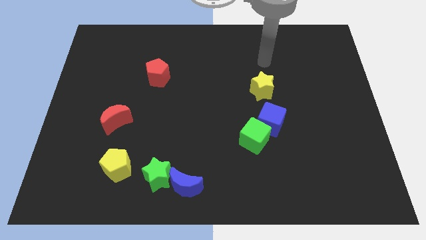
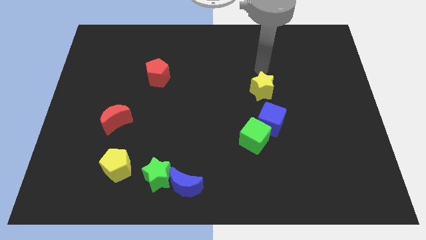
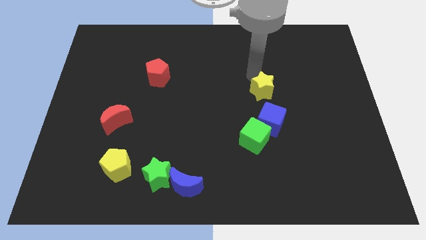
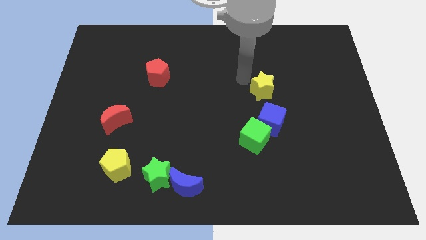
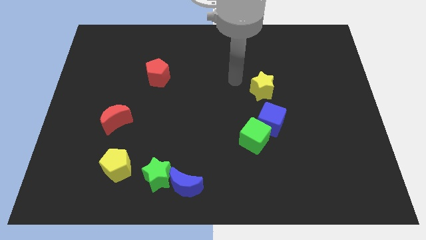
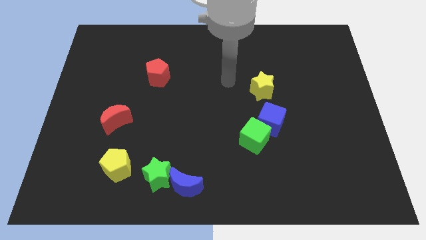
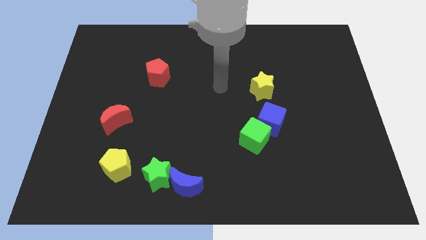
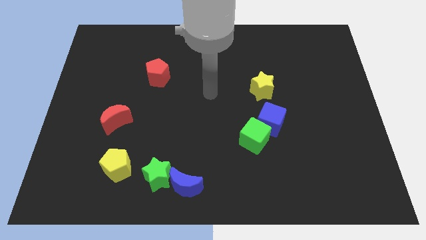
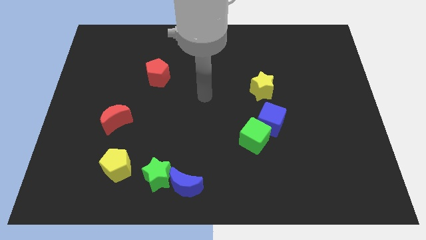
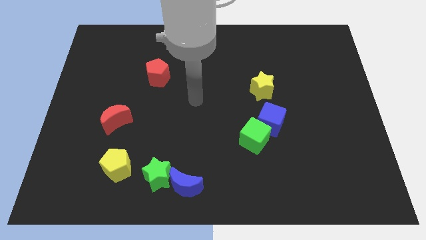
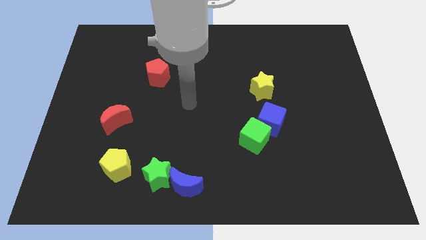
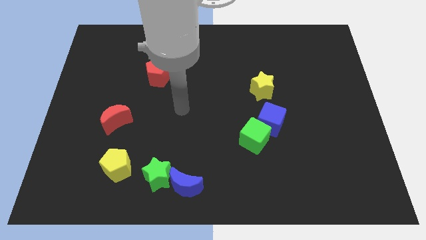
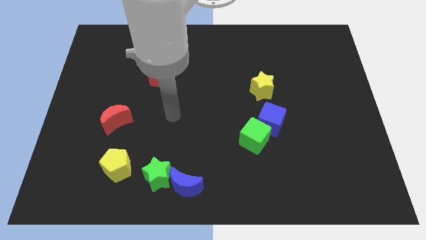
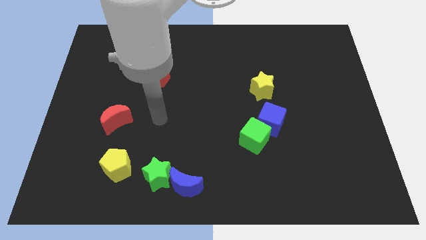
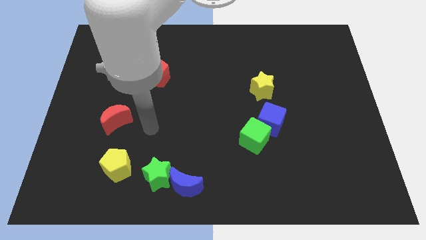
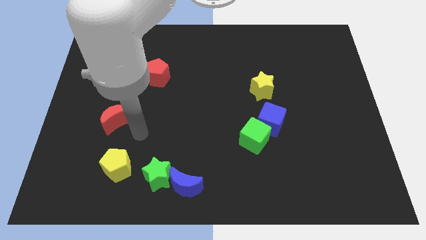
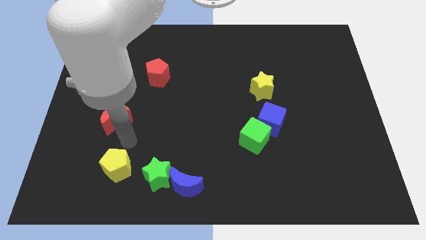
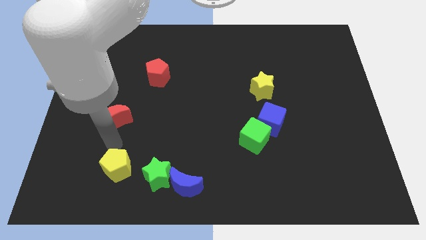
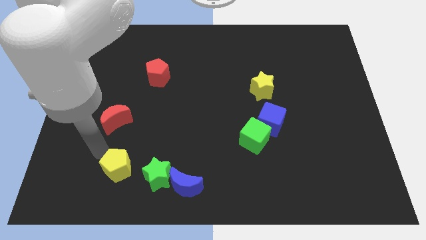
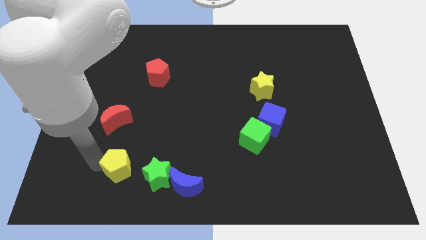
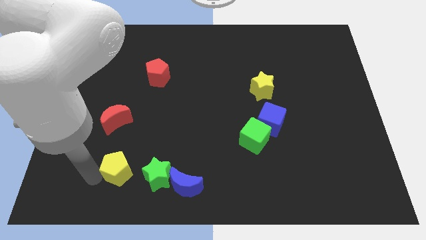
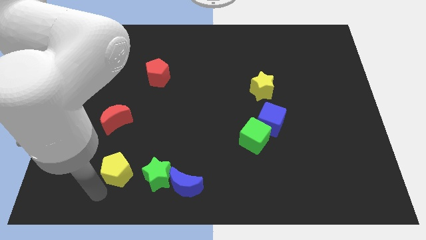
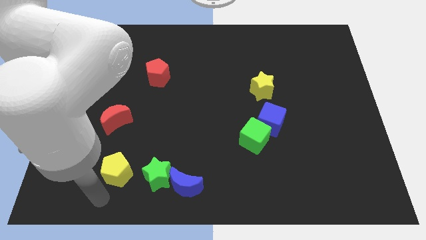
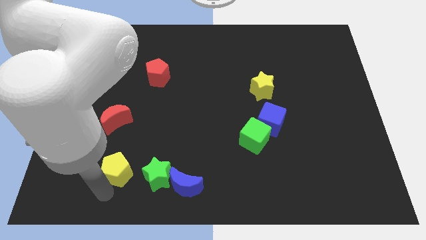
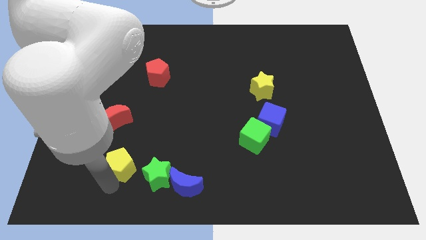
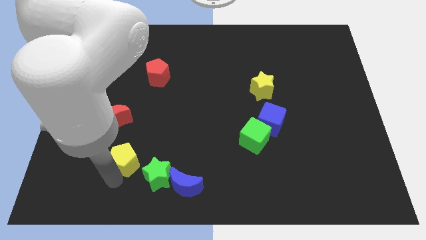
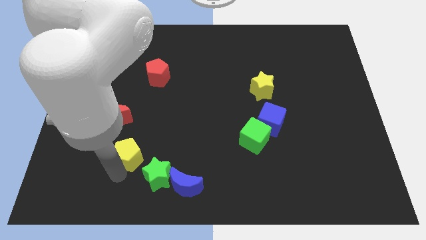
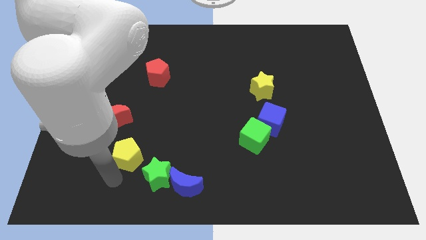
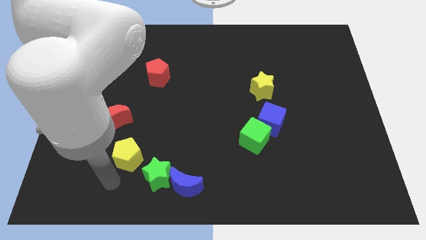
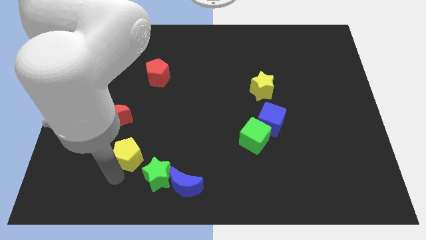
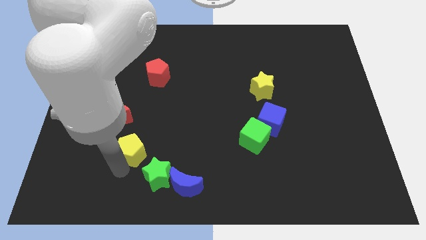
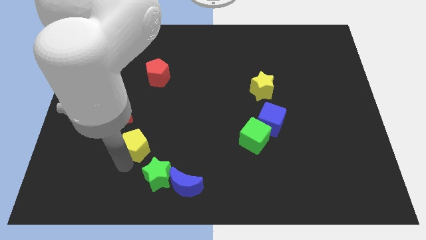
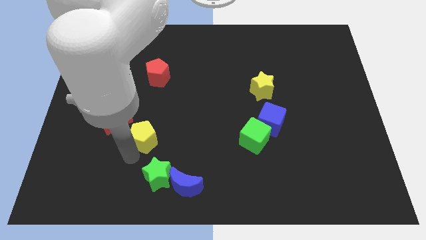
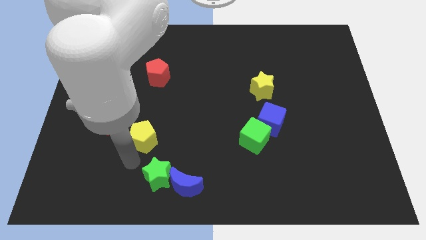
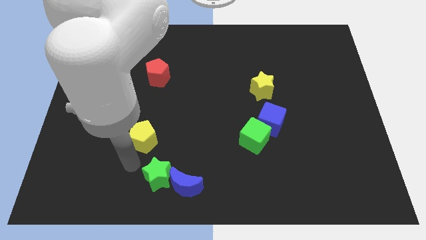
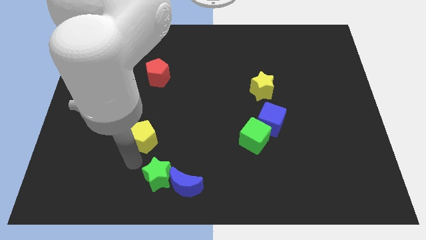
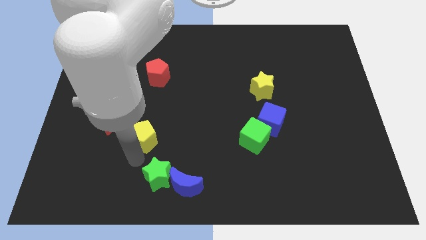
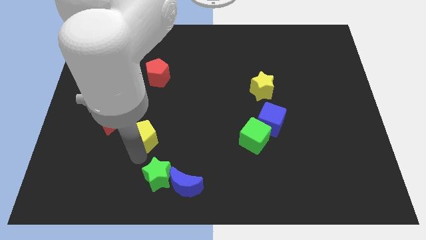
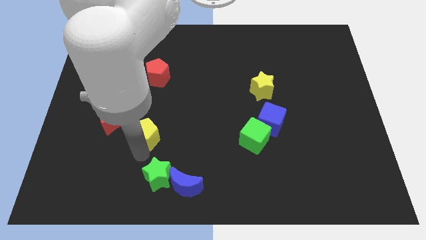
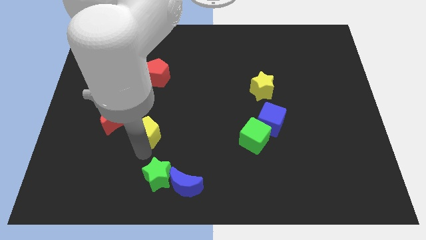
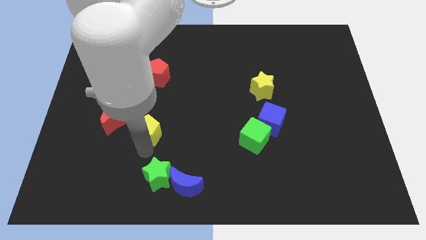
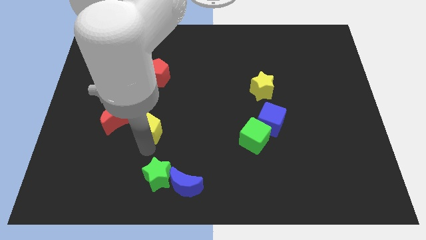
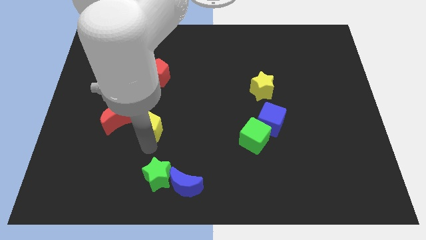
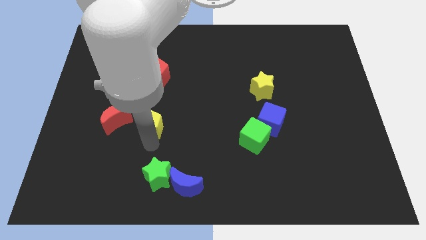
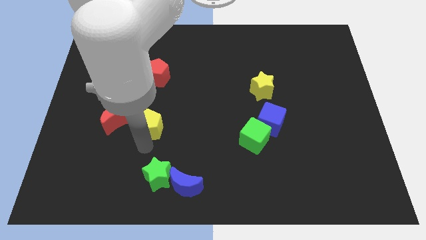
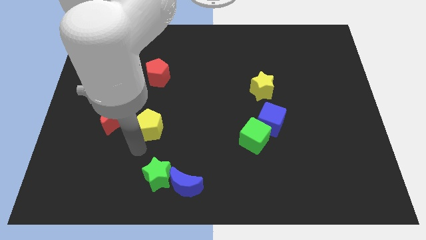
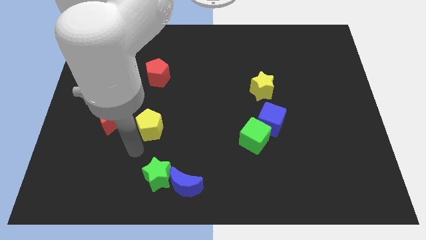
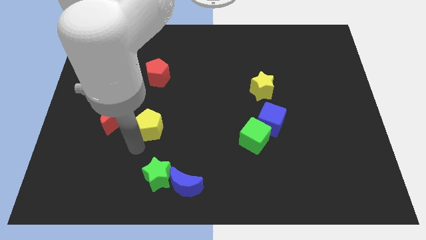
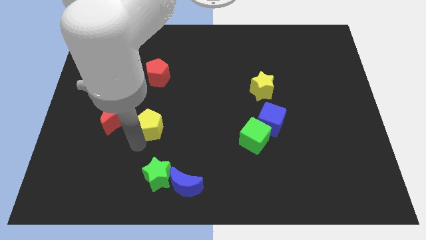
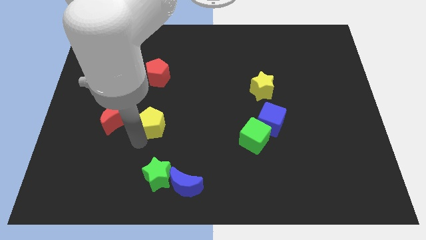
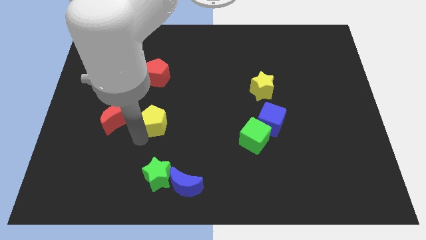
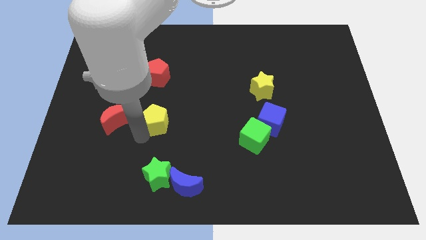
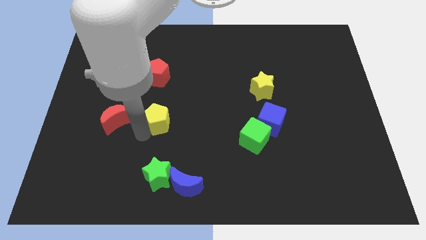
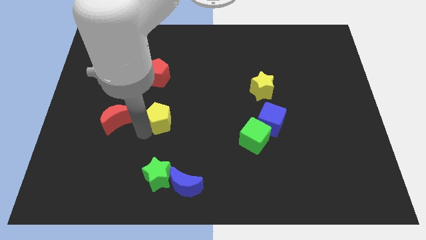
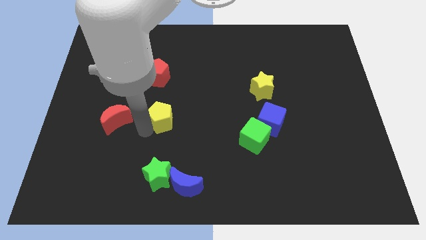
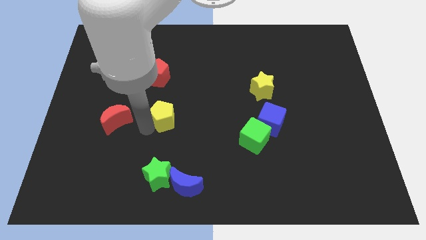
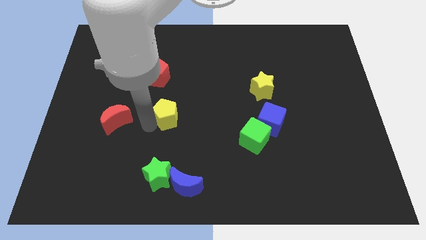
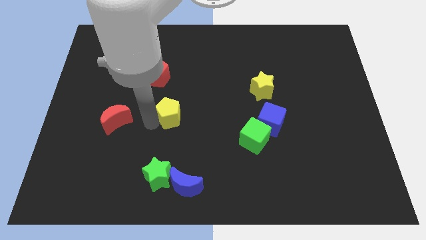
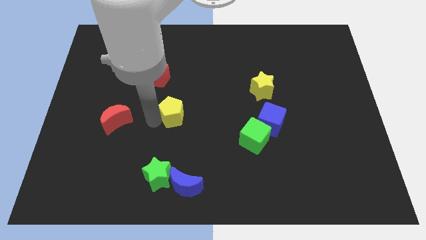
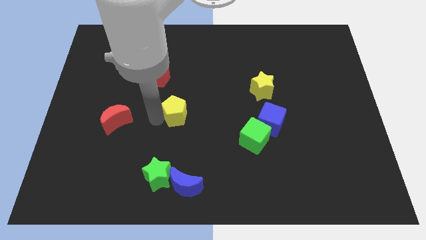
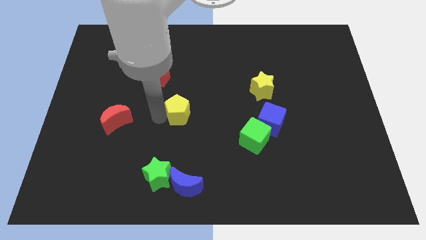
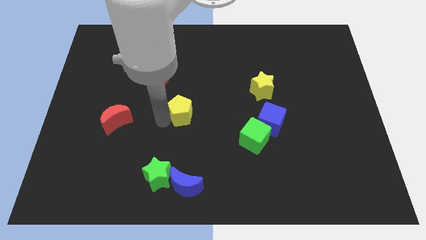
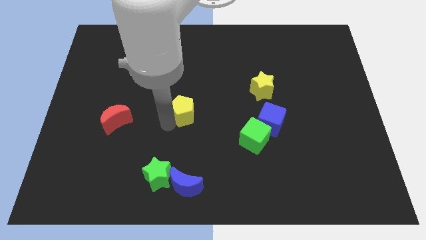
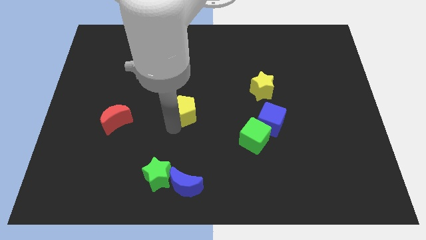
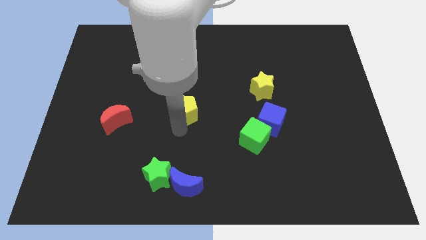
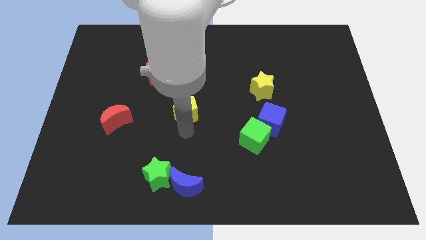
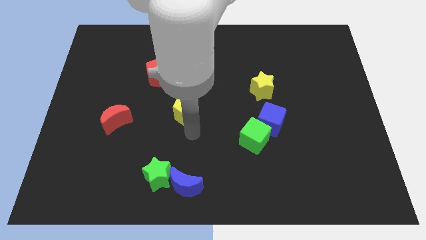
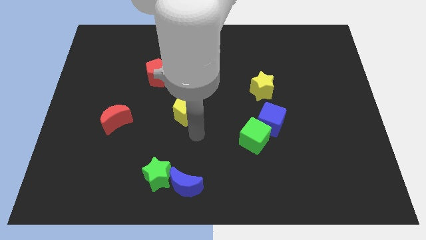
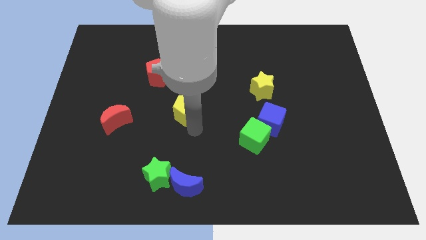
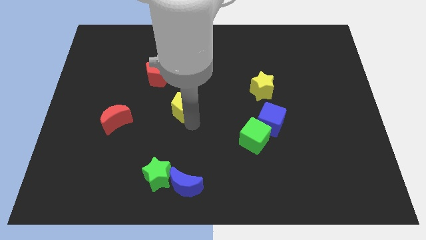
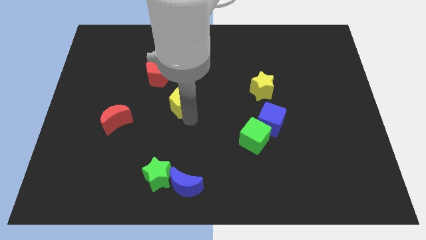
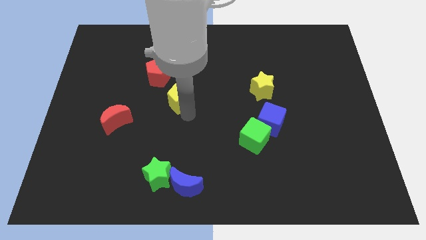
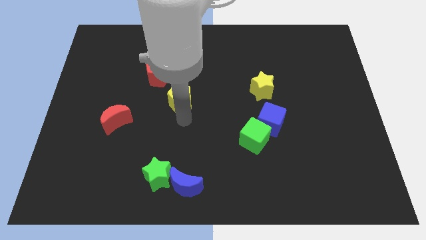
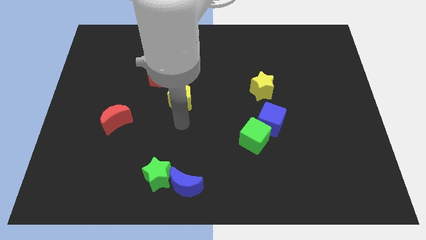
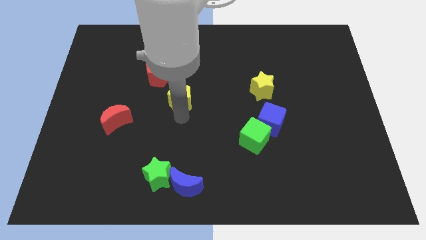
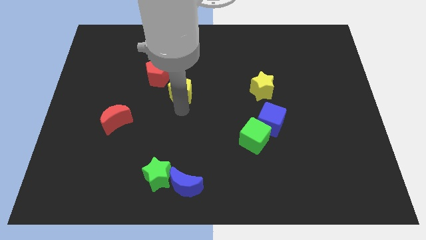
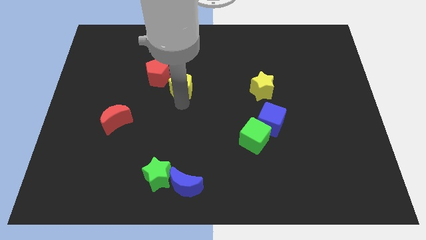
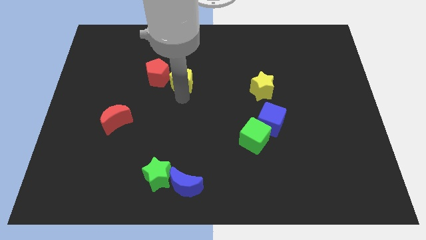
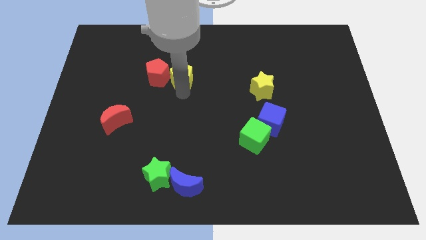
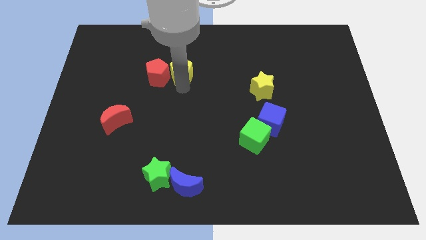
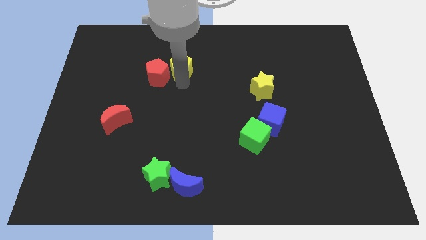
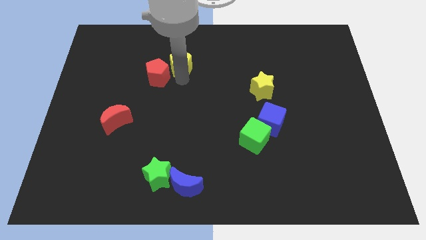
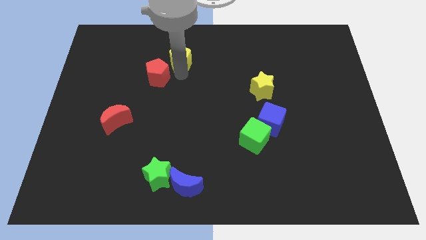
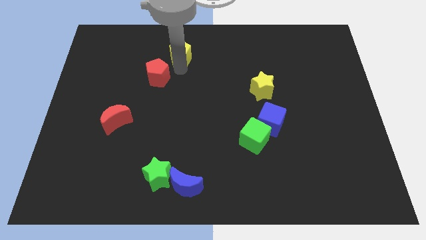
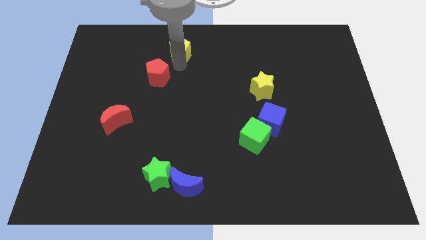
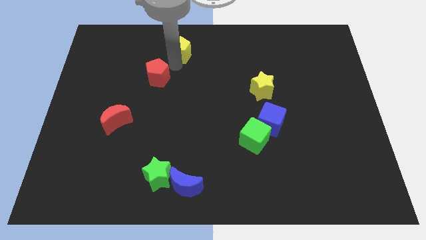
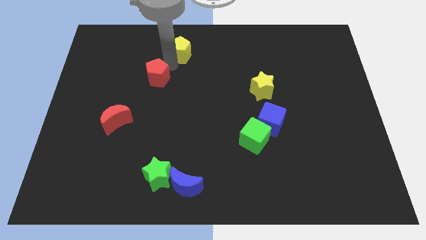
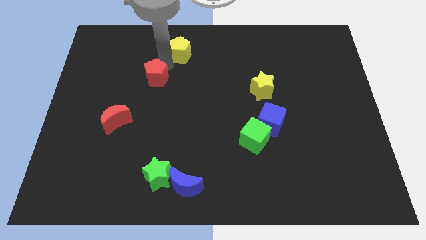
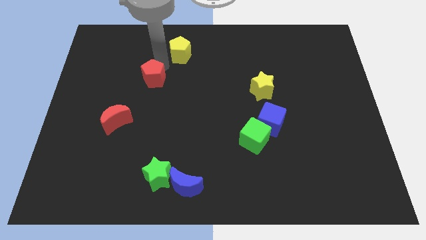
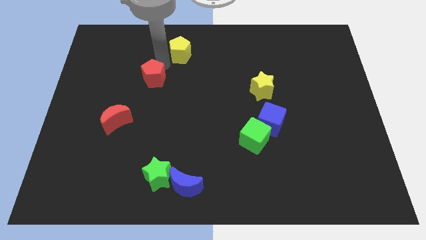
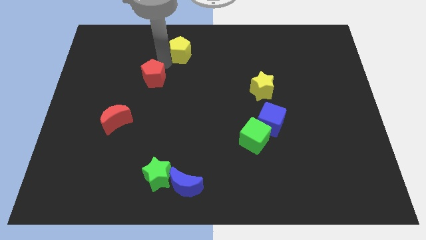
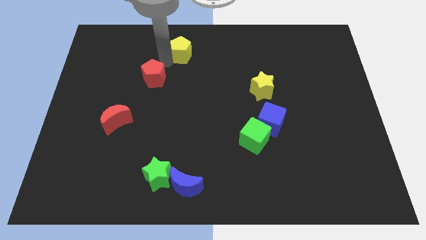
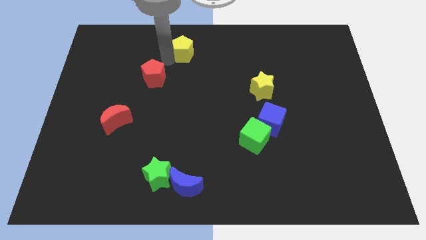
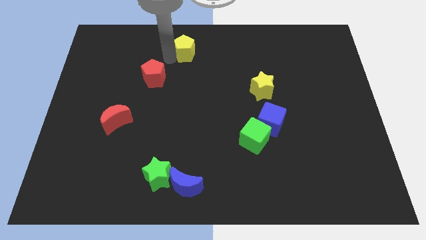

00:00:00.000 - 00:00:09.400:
slide the yellow pentagon to the top side
